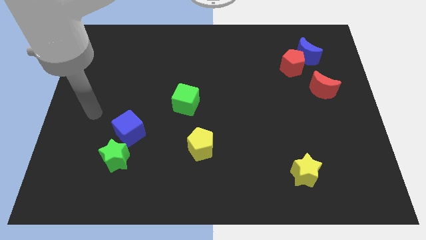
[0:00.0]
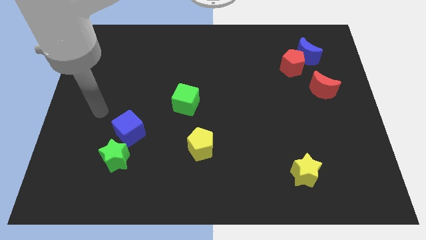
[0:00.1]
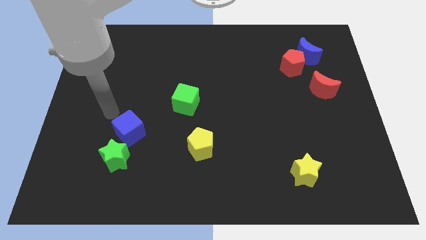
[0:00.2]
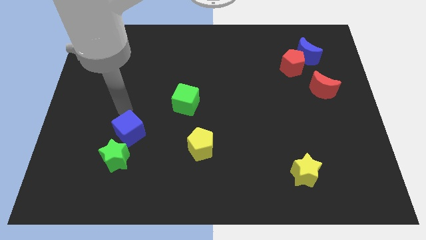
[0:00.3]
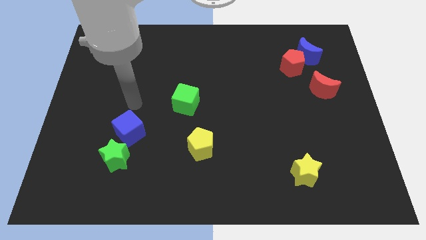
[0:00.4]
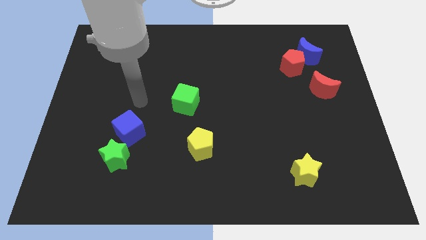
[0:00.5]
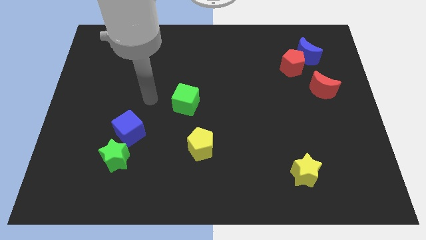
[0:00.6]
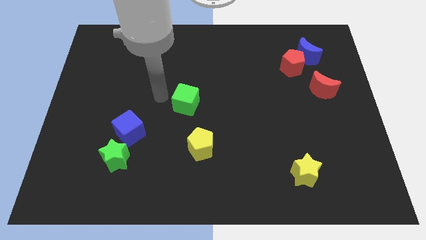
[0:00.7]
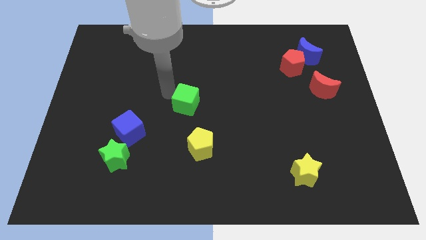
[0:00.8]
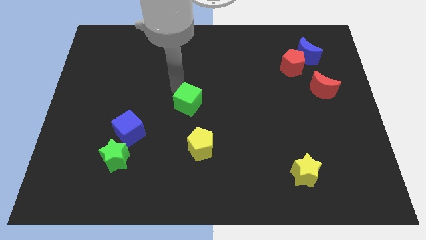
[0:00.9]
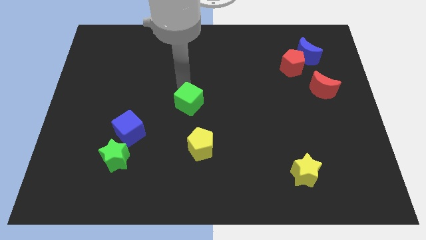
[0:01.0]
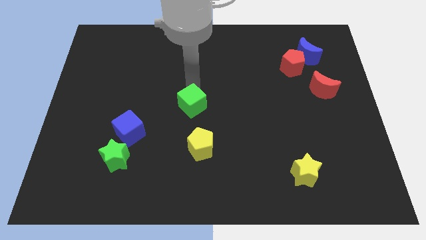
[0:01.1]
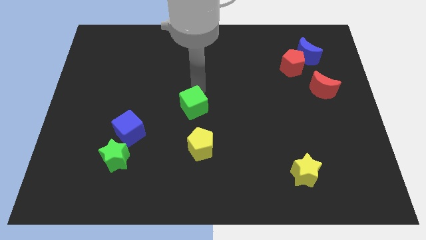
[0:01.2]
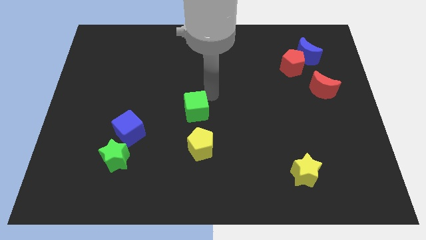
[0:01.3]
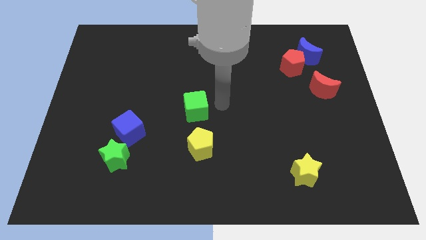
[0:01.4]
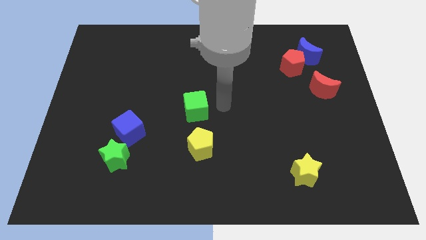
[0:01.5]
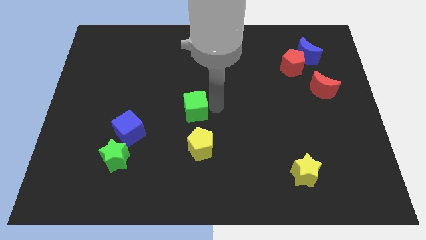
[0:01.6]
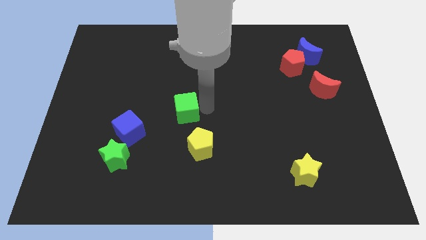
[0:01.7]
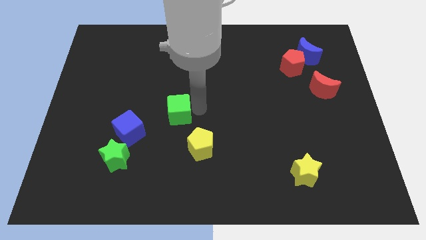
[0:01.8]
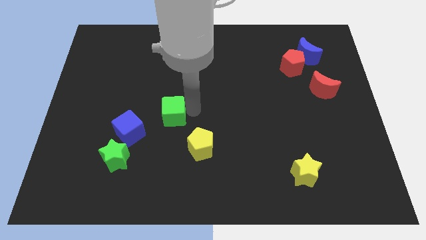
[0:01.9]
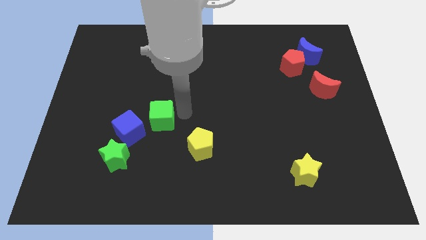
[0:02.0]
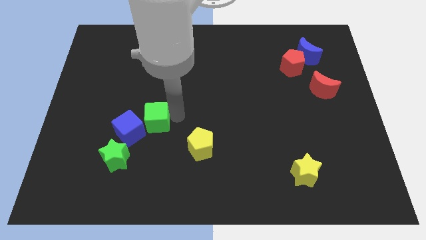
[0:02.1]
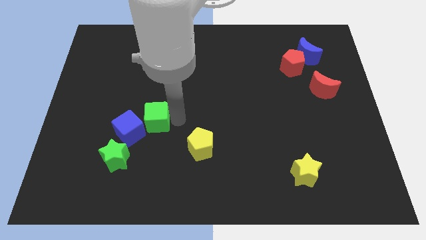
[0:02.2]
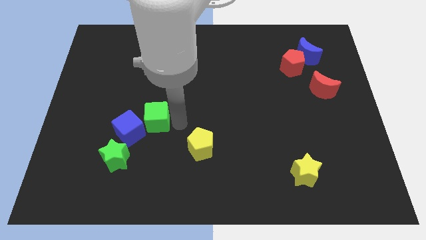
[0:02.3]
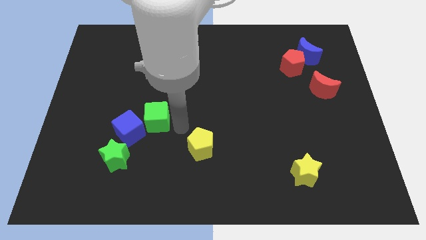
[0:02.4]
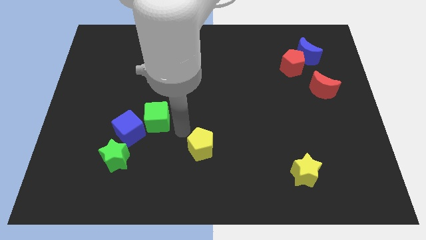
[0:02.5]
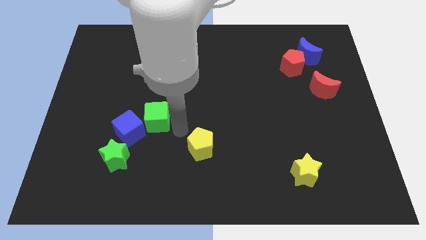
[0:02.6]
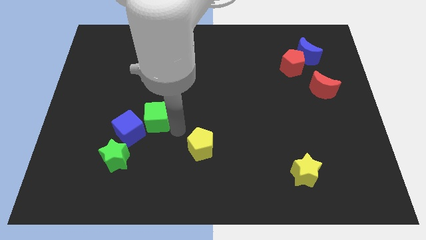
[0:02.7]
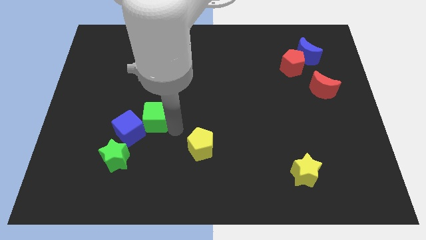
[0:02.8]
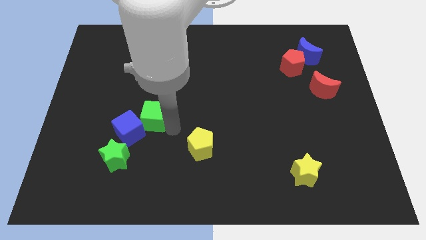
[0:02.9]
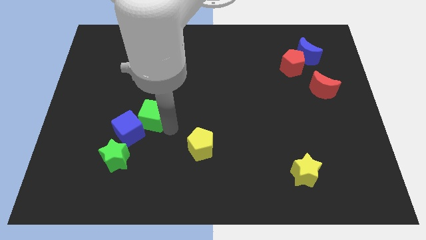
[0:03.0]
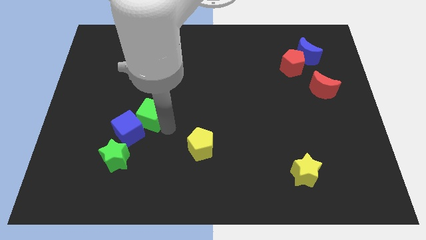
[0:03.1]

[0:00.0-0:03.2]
slide the green cube to the left somewhat

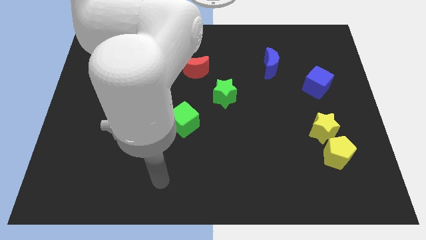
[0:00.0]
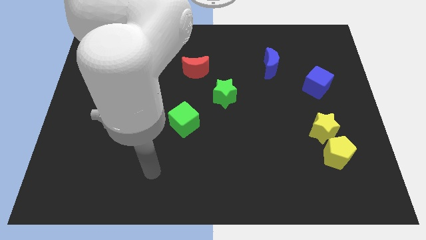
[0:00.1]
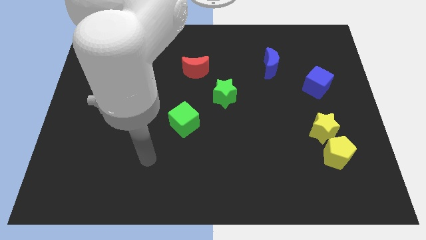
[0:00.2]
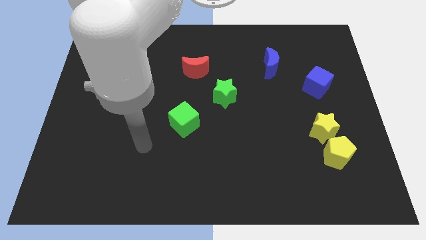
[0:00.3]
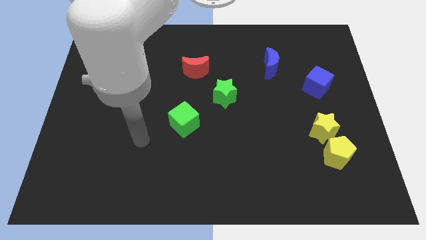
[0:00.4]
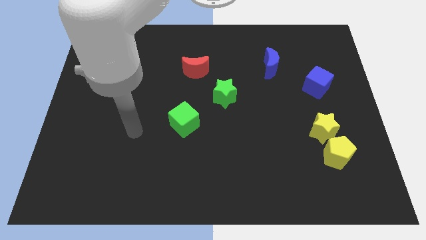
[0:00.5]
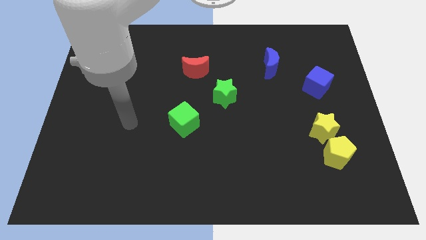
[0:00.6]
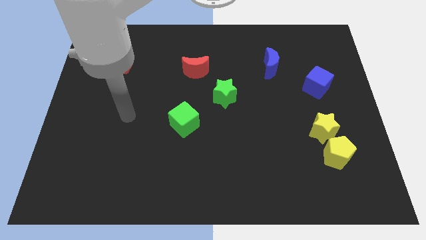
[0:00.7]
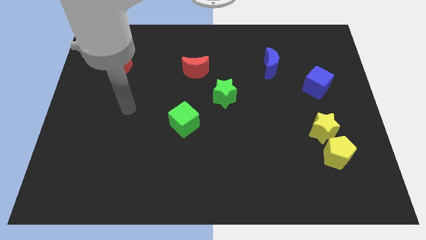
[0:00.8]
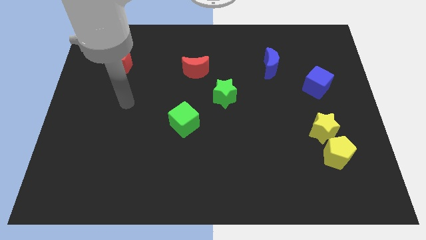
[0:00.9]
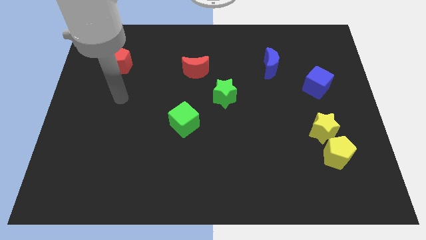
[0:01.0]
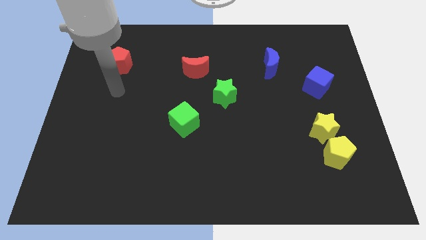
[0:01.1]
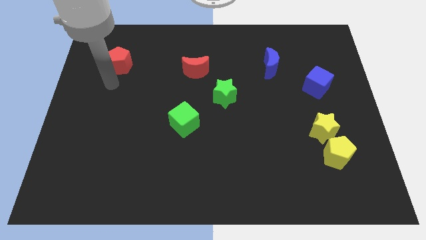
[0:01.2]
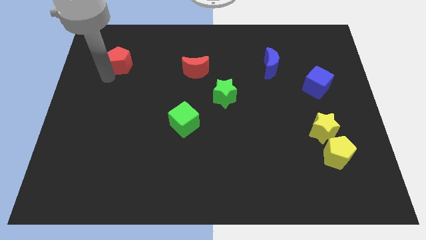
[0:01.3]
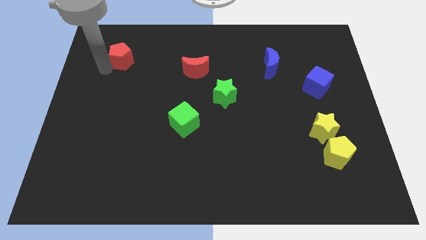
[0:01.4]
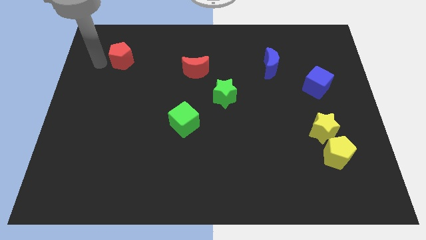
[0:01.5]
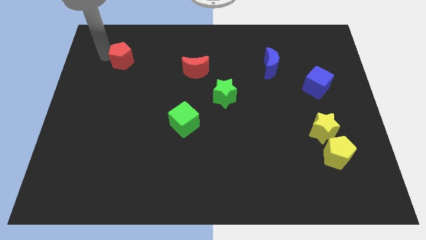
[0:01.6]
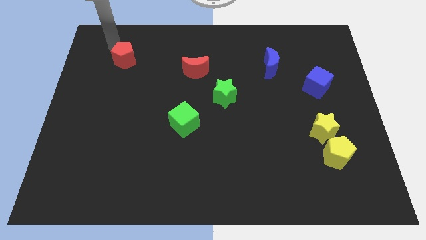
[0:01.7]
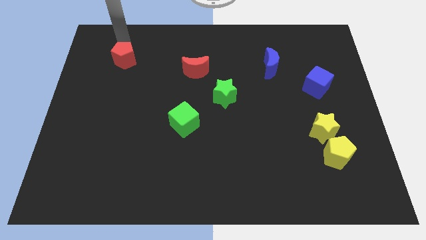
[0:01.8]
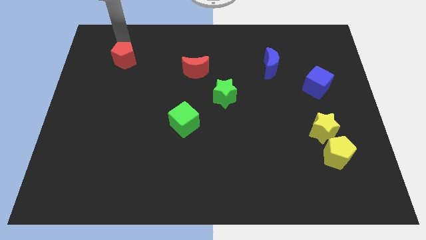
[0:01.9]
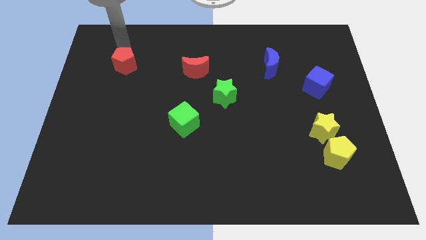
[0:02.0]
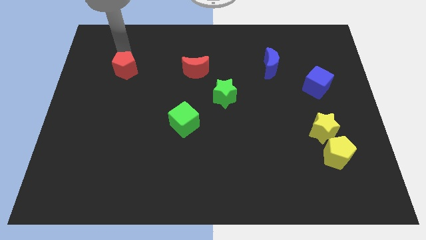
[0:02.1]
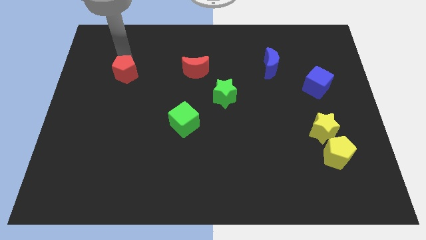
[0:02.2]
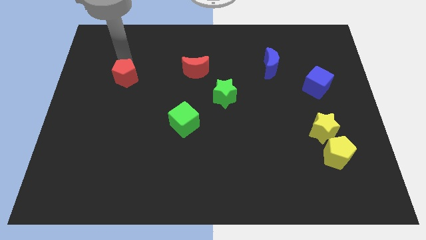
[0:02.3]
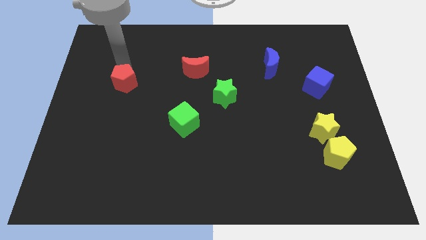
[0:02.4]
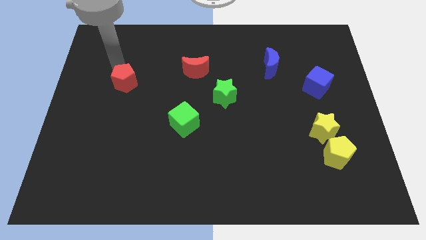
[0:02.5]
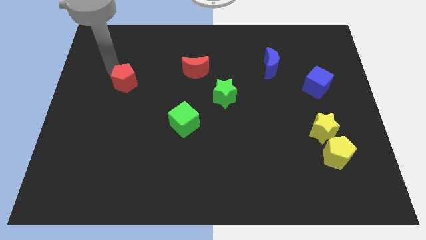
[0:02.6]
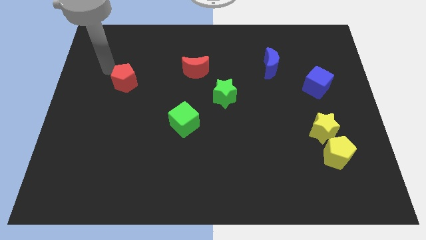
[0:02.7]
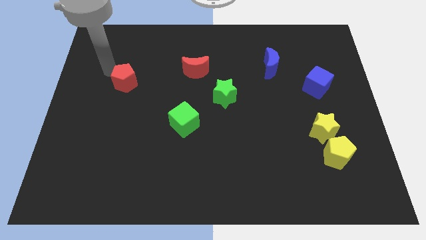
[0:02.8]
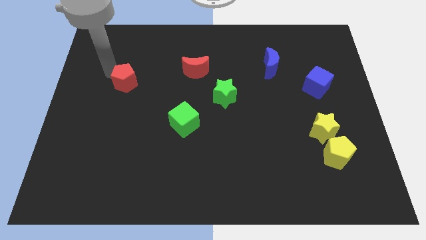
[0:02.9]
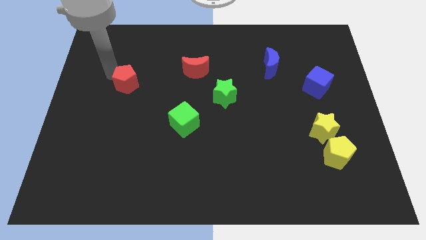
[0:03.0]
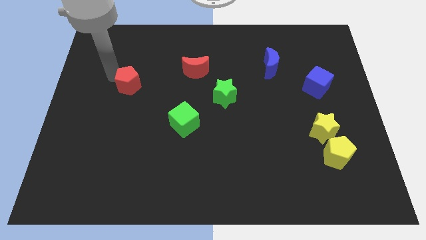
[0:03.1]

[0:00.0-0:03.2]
move the red pentagon slightly diagonally down and to the right

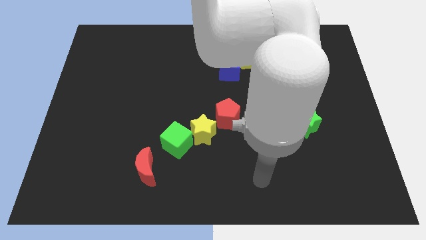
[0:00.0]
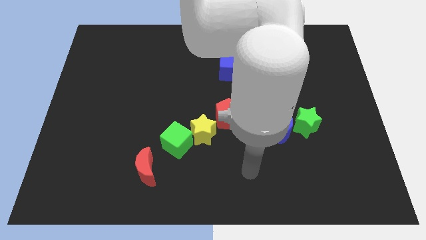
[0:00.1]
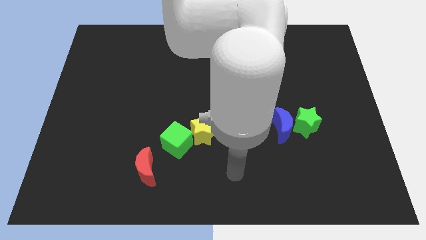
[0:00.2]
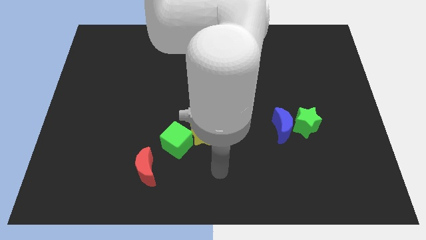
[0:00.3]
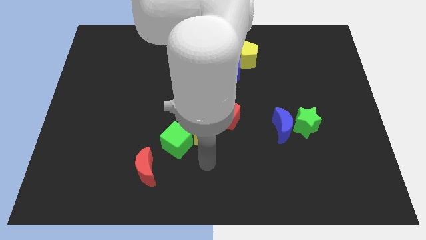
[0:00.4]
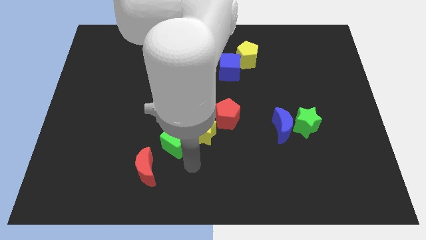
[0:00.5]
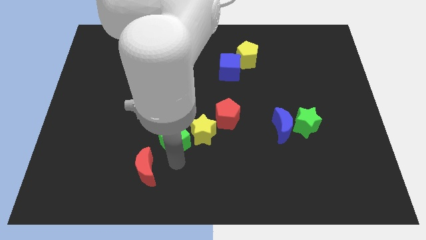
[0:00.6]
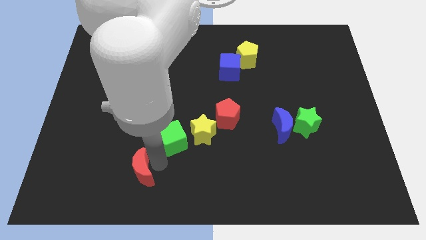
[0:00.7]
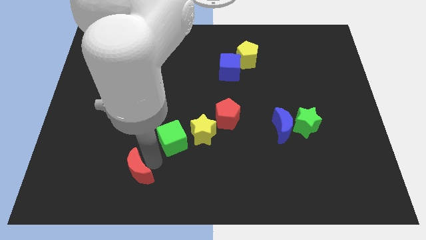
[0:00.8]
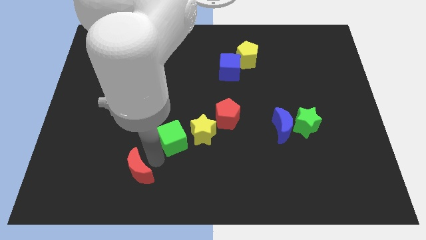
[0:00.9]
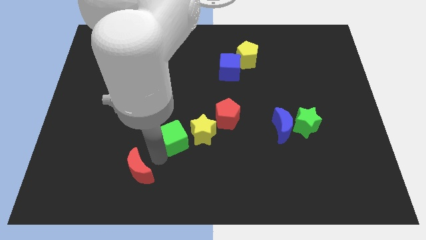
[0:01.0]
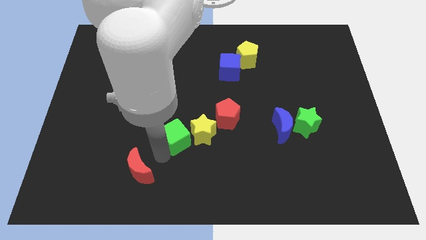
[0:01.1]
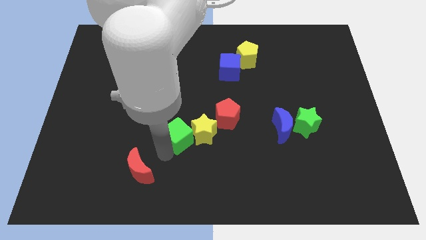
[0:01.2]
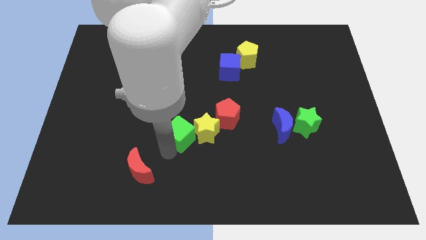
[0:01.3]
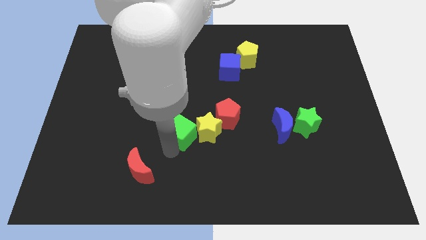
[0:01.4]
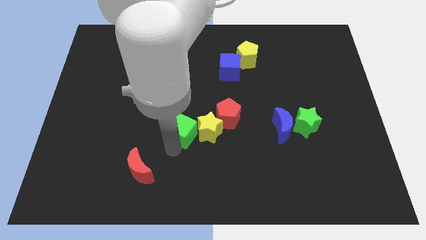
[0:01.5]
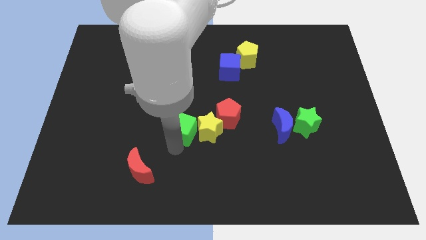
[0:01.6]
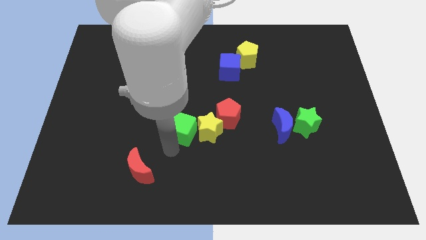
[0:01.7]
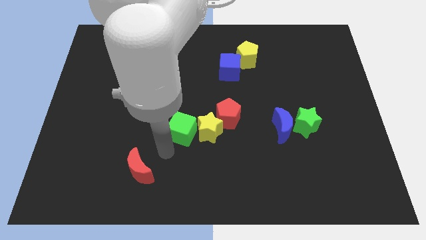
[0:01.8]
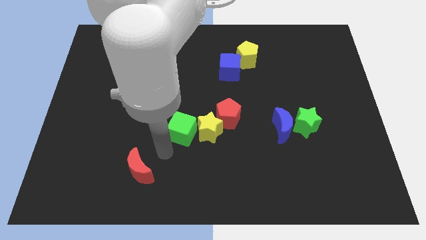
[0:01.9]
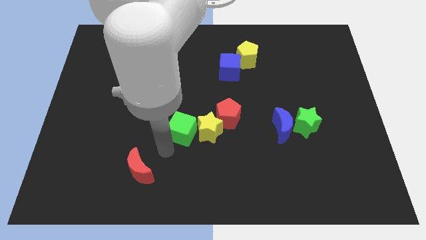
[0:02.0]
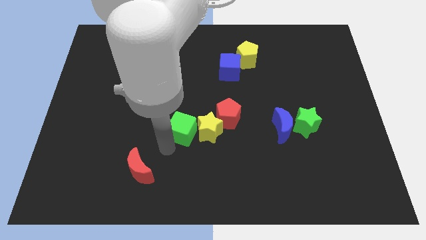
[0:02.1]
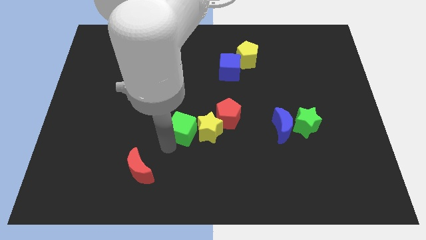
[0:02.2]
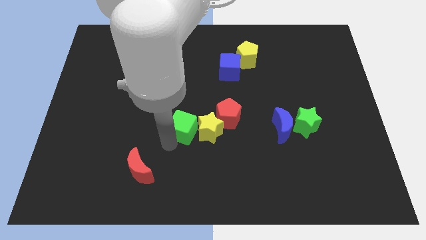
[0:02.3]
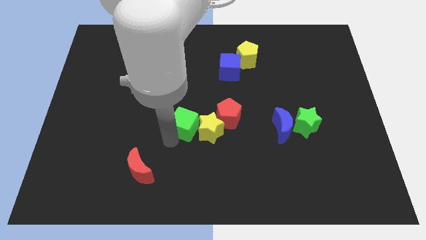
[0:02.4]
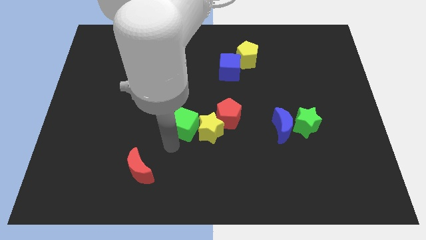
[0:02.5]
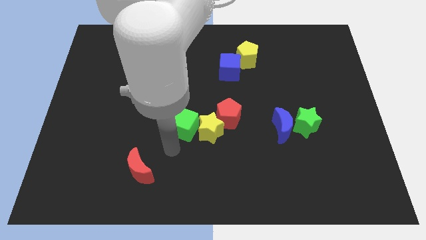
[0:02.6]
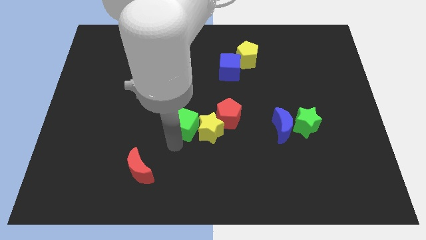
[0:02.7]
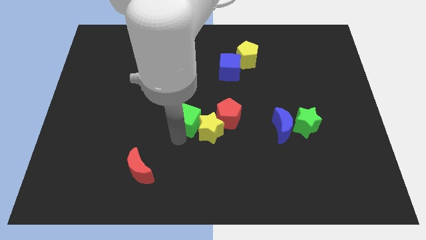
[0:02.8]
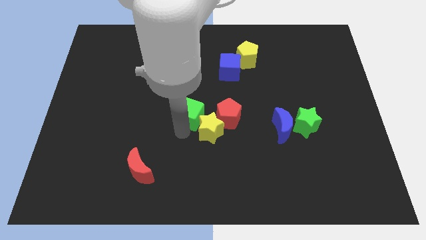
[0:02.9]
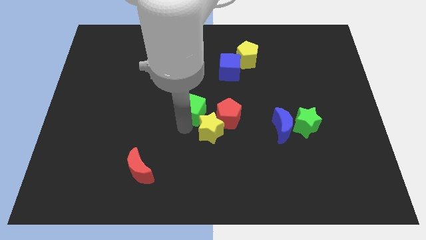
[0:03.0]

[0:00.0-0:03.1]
push the green cube a bit diagonally up and to the right
